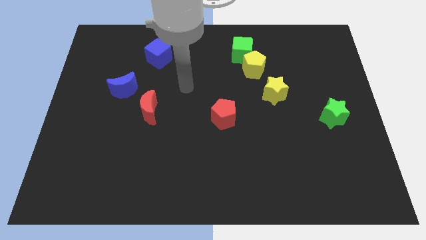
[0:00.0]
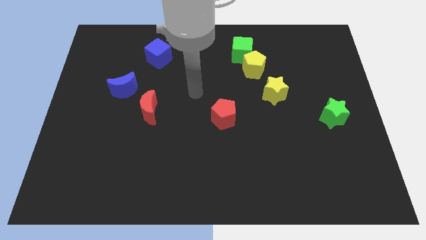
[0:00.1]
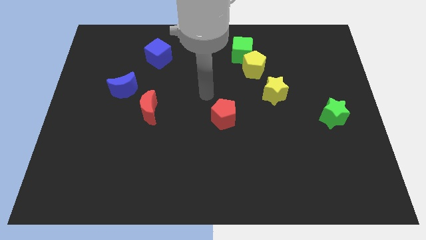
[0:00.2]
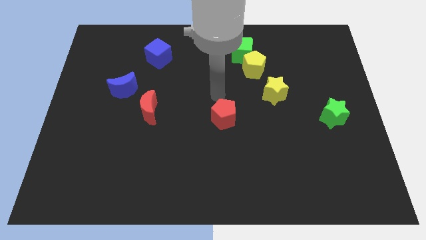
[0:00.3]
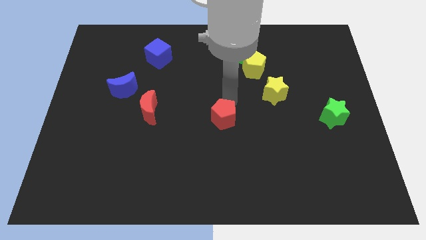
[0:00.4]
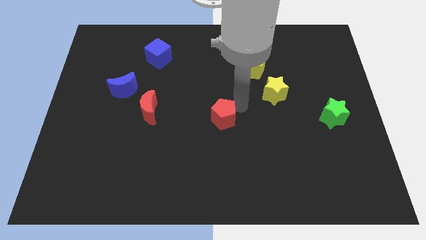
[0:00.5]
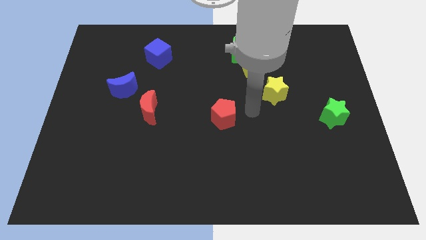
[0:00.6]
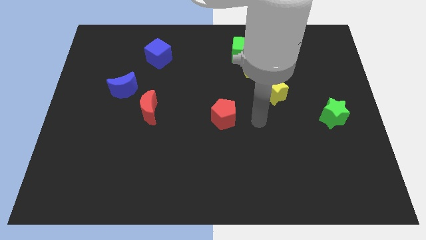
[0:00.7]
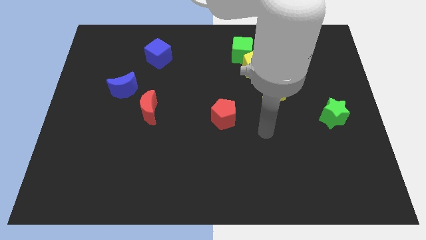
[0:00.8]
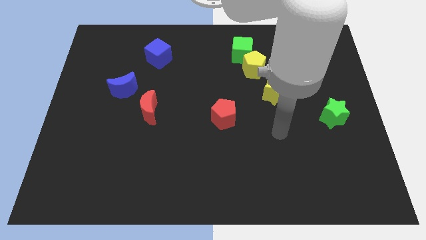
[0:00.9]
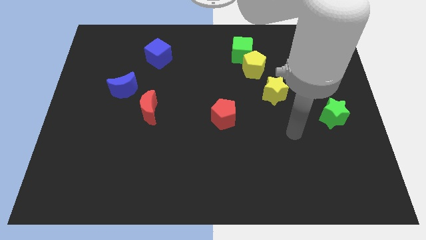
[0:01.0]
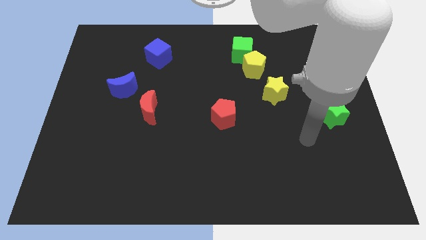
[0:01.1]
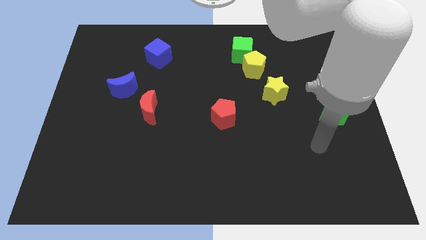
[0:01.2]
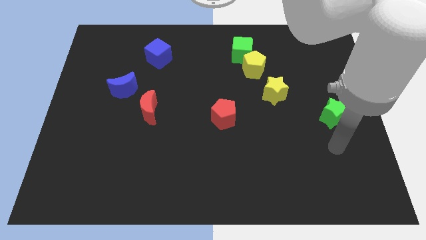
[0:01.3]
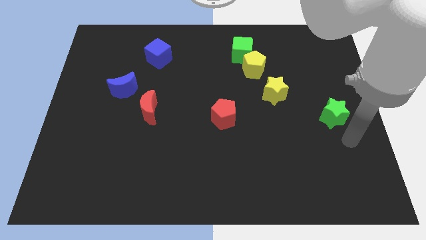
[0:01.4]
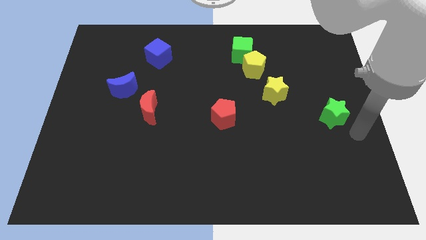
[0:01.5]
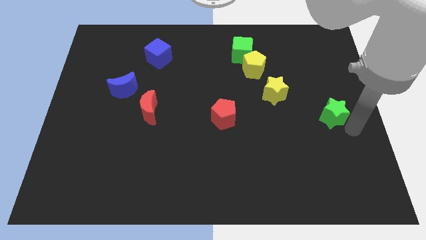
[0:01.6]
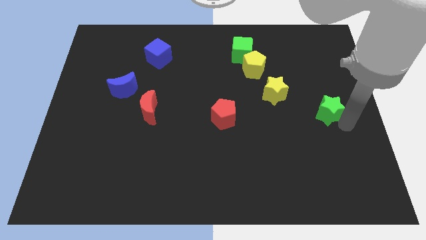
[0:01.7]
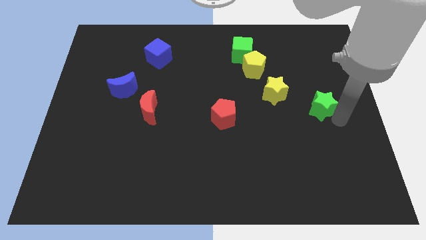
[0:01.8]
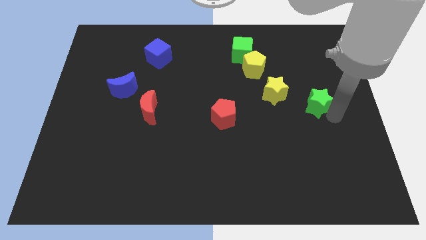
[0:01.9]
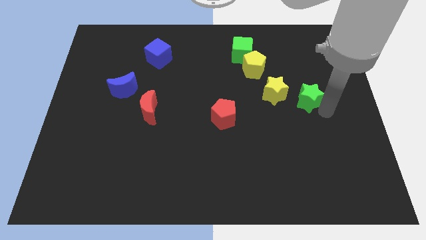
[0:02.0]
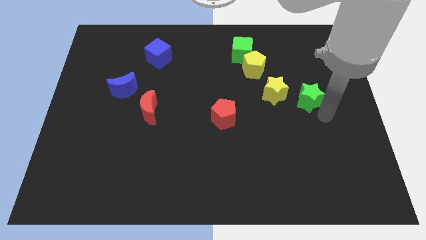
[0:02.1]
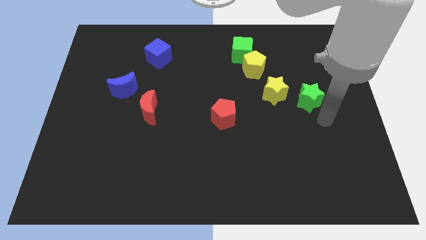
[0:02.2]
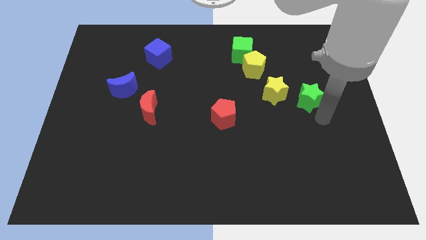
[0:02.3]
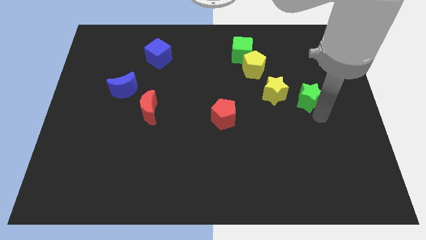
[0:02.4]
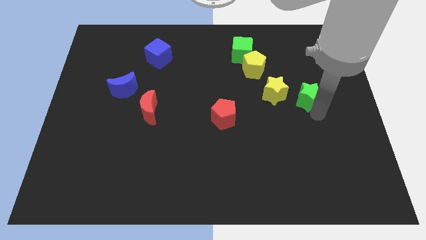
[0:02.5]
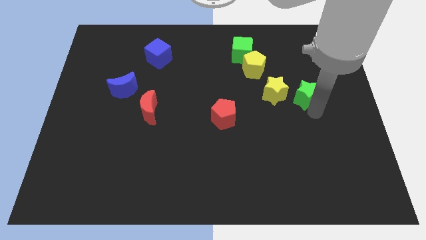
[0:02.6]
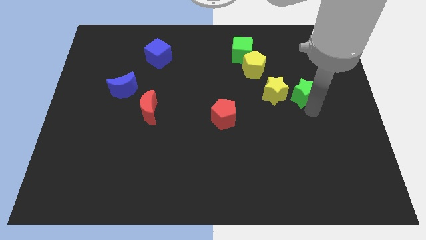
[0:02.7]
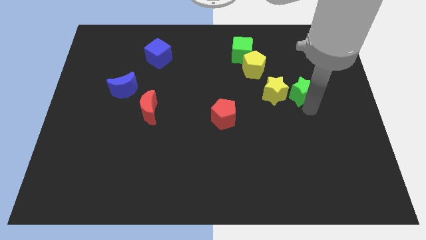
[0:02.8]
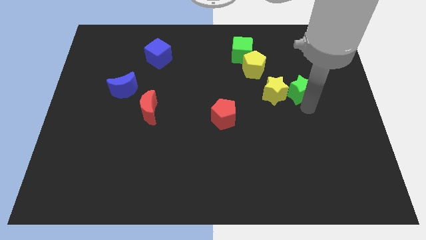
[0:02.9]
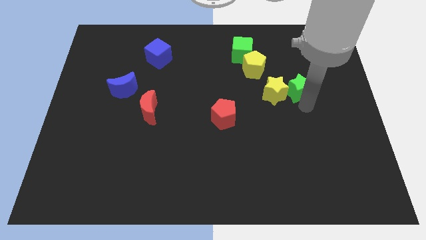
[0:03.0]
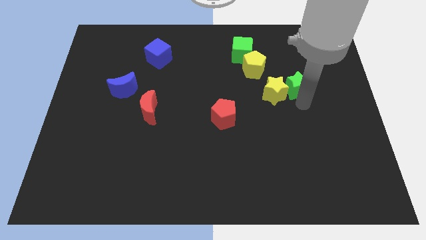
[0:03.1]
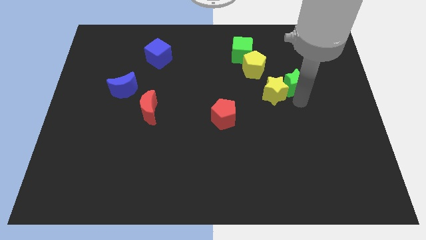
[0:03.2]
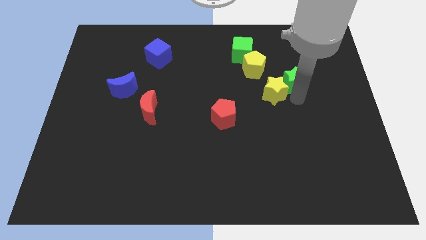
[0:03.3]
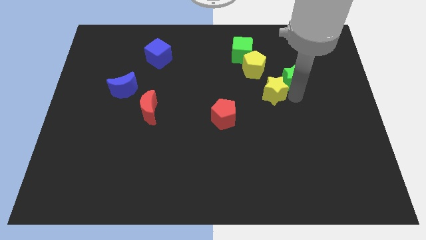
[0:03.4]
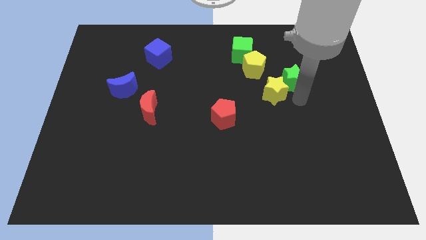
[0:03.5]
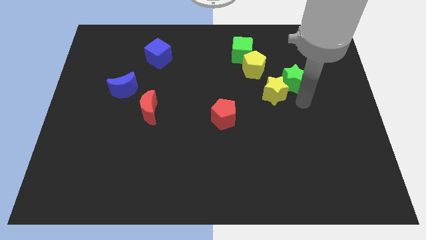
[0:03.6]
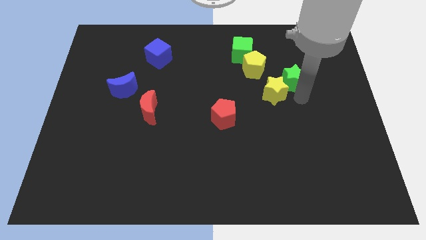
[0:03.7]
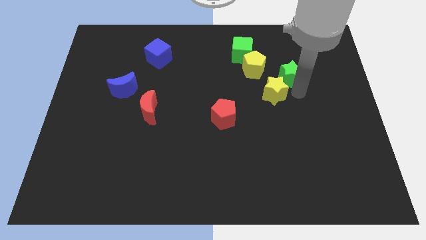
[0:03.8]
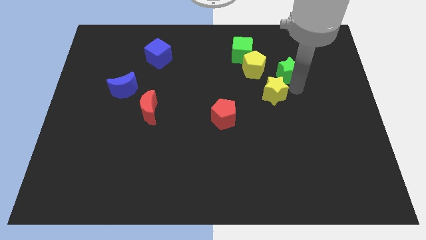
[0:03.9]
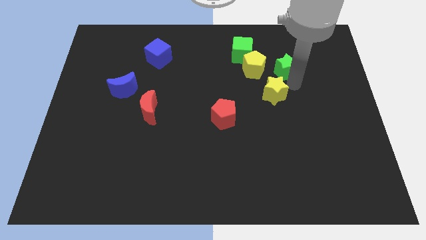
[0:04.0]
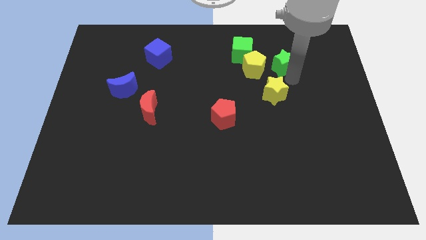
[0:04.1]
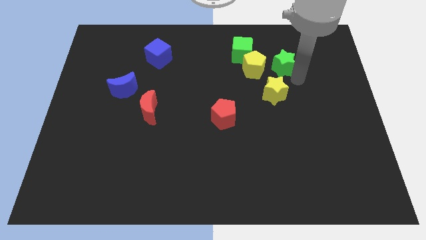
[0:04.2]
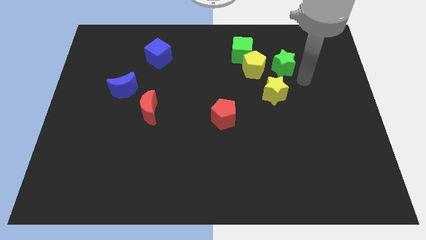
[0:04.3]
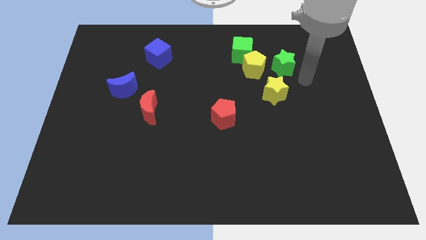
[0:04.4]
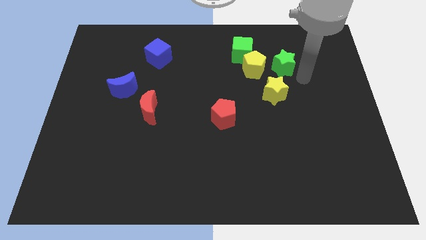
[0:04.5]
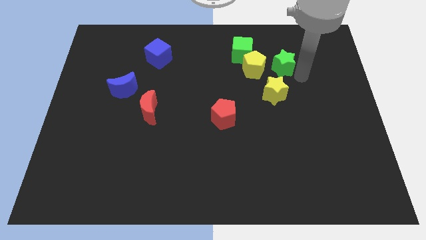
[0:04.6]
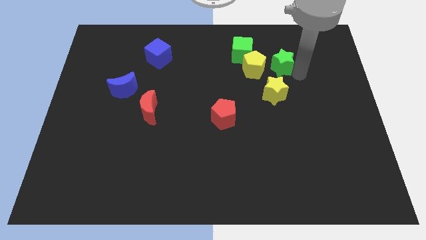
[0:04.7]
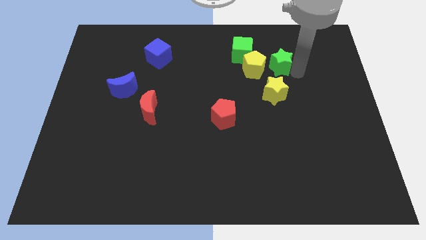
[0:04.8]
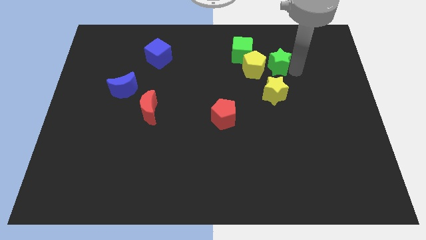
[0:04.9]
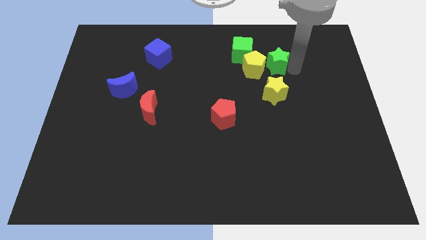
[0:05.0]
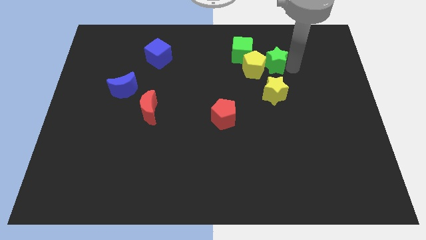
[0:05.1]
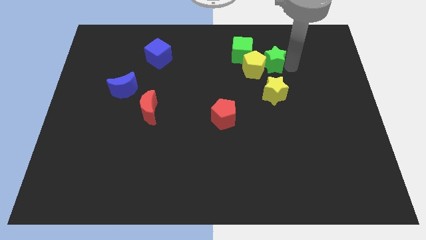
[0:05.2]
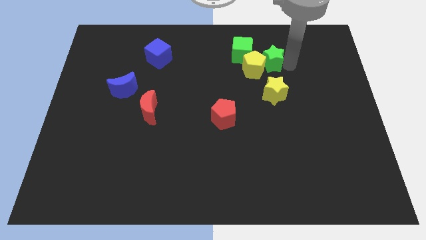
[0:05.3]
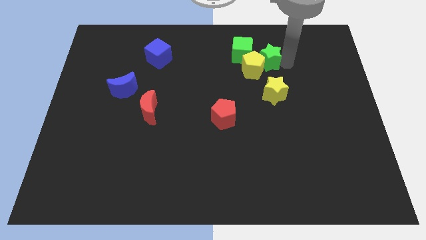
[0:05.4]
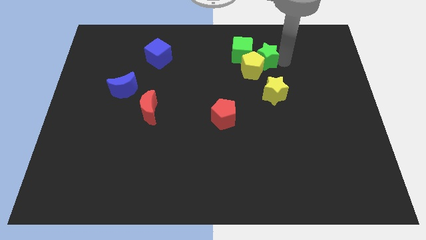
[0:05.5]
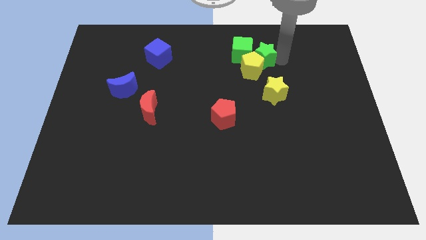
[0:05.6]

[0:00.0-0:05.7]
push the green star close to the green cube
